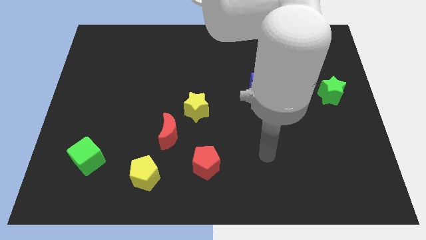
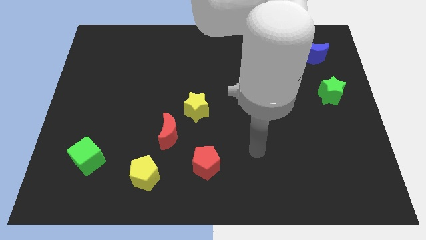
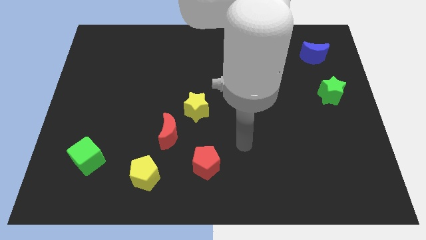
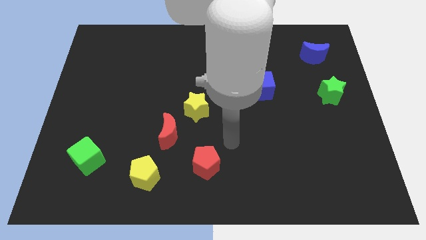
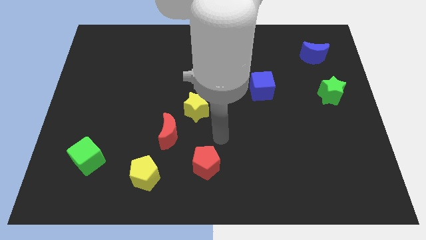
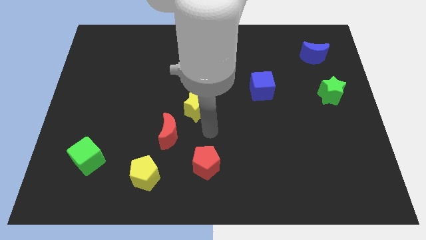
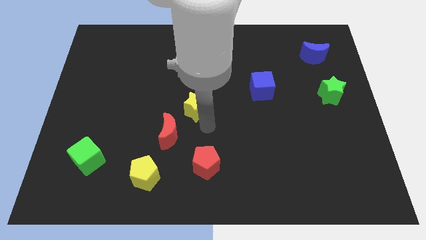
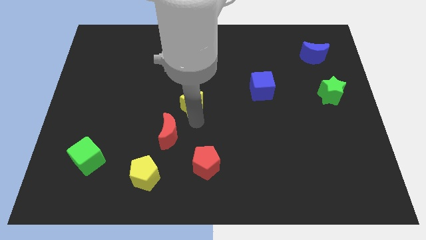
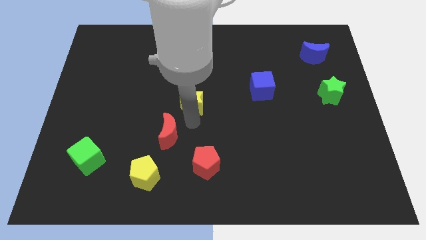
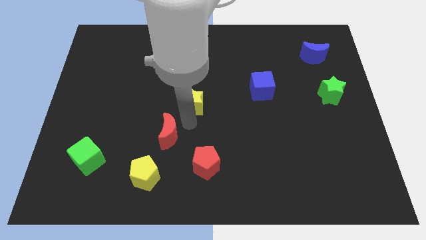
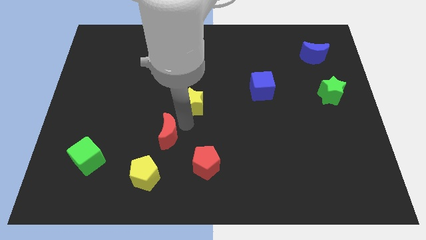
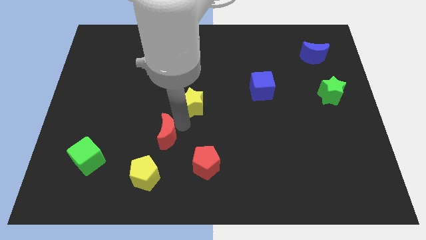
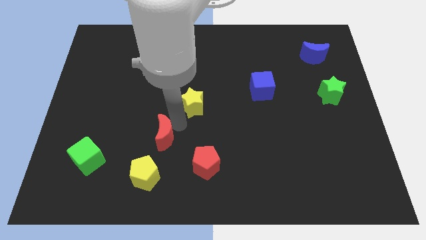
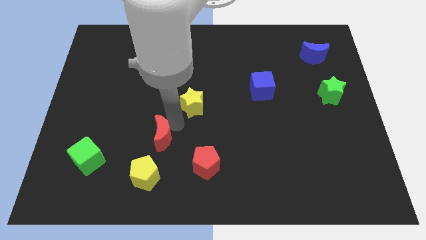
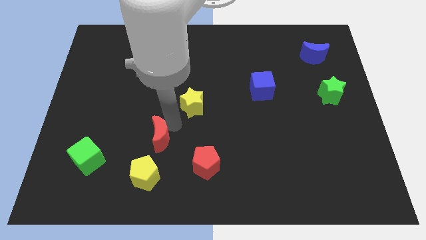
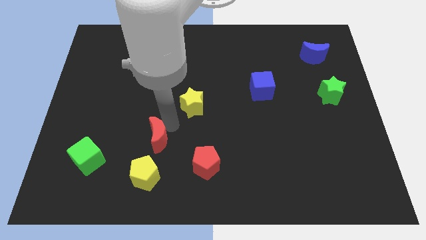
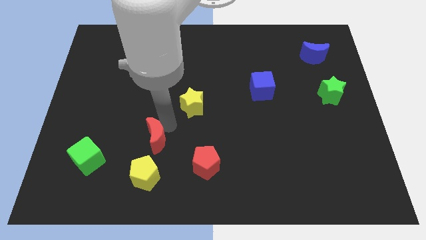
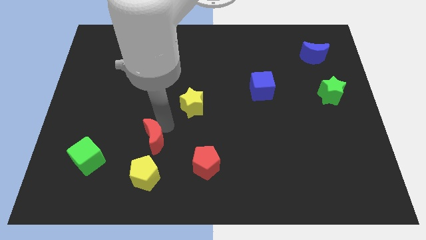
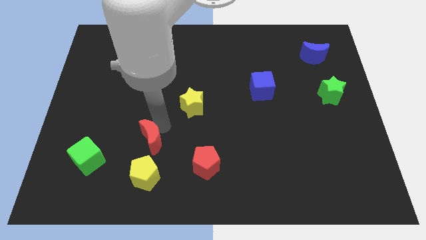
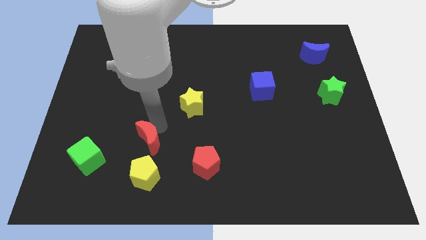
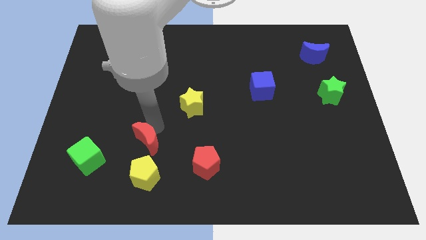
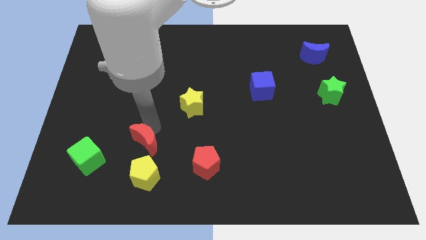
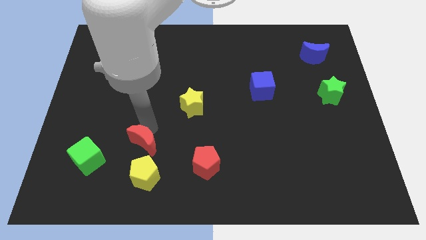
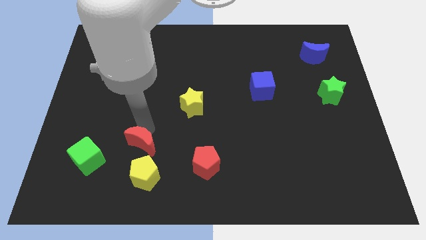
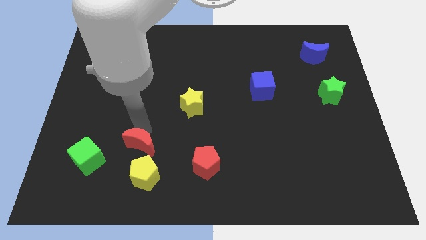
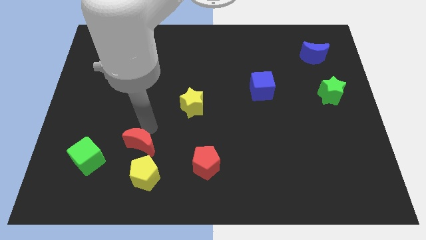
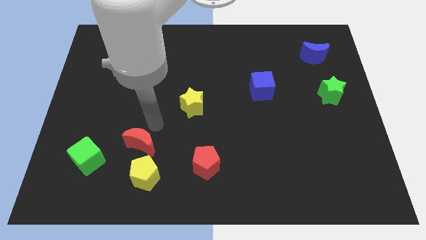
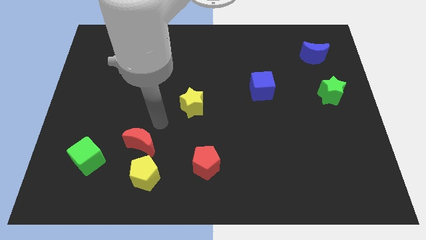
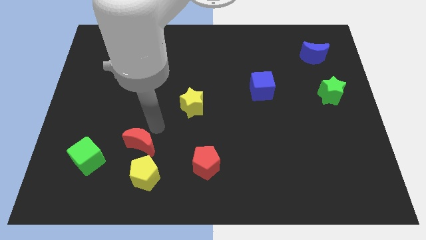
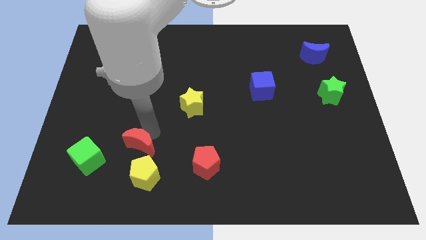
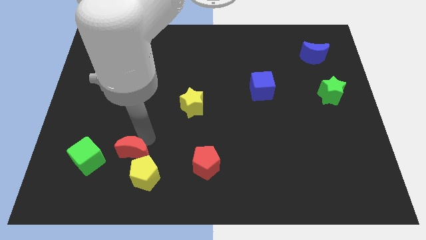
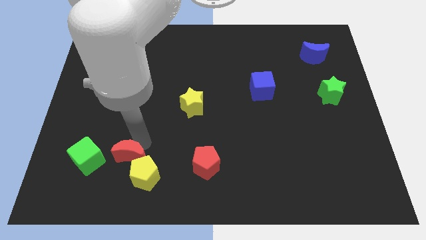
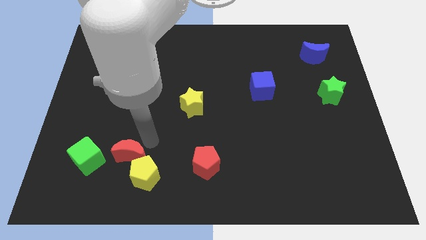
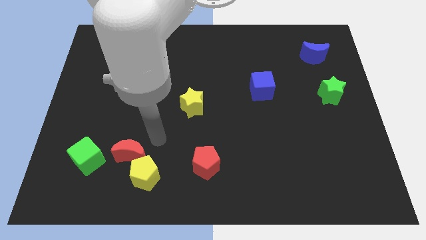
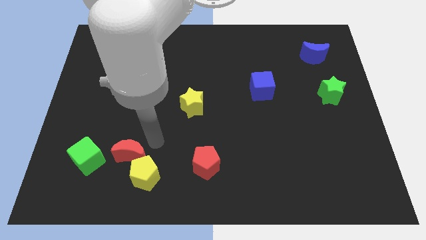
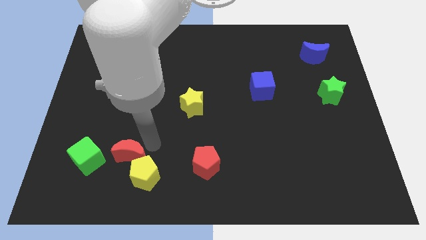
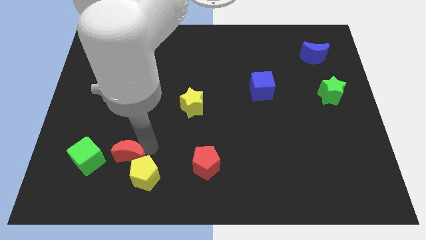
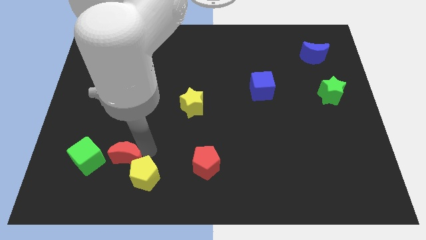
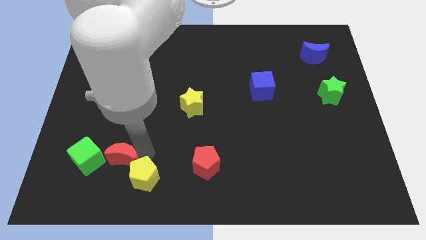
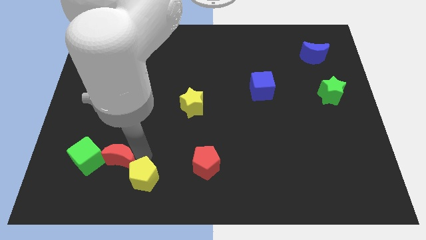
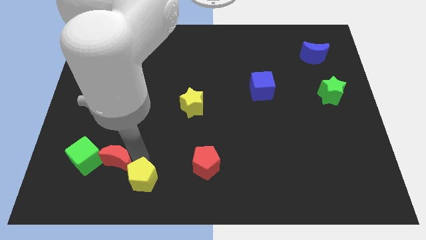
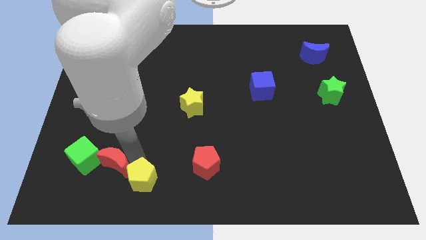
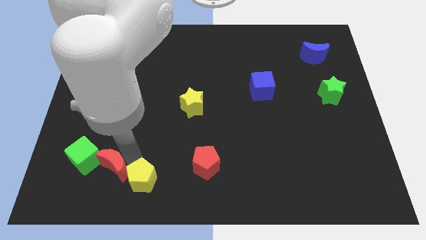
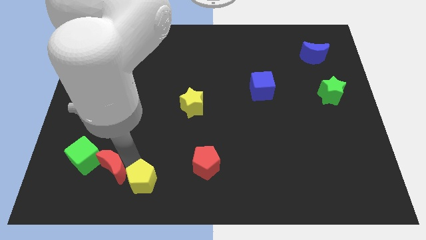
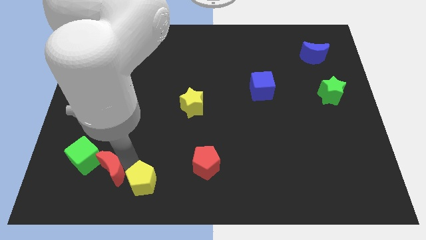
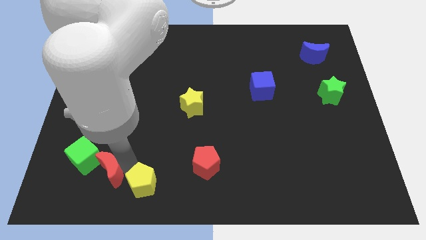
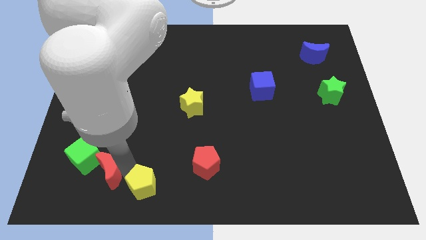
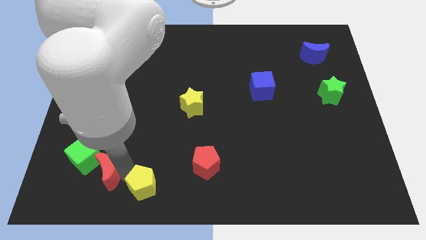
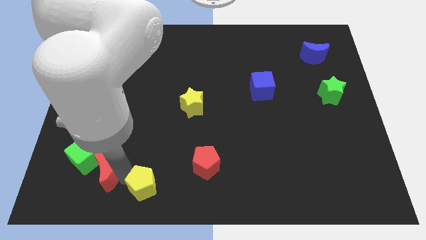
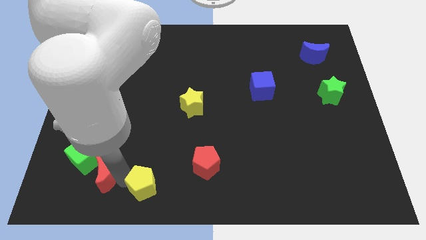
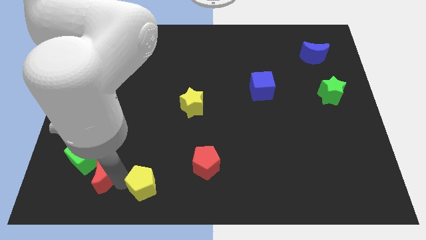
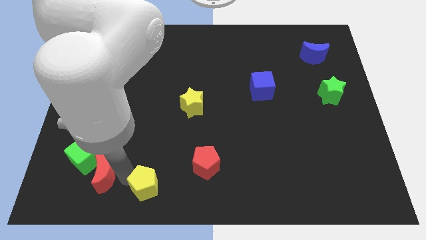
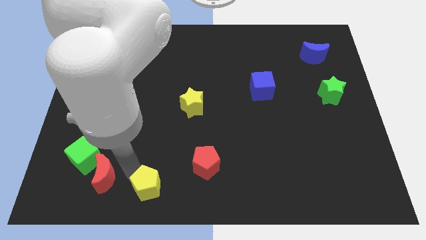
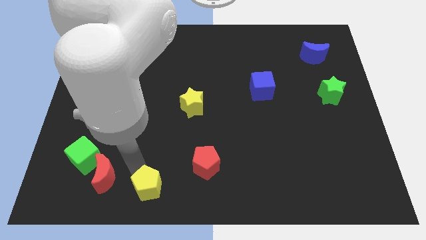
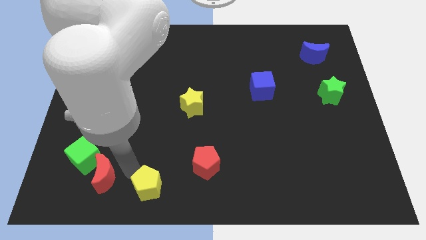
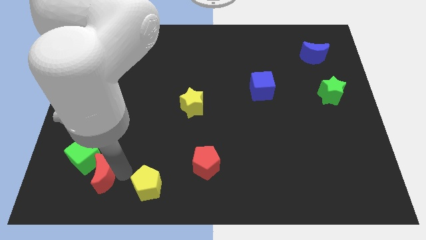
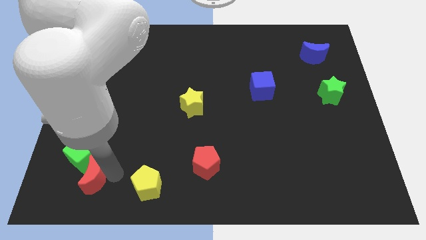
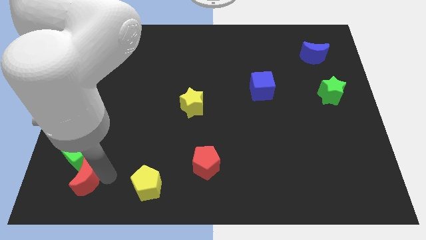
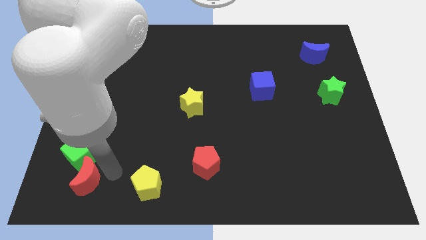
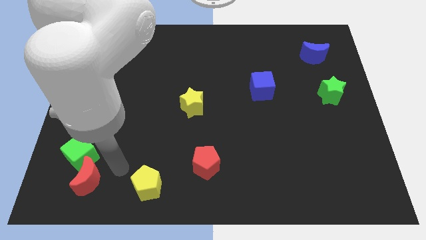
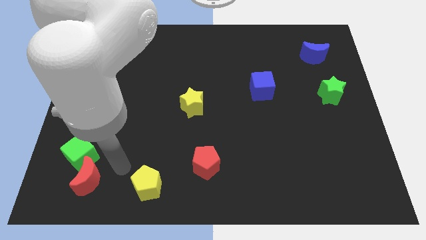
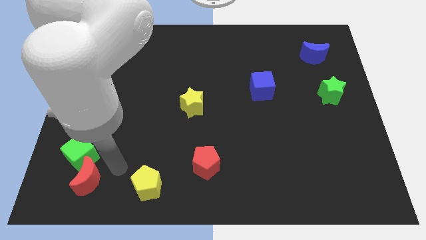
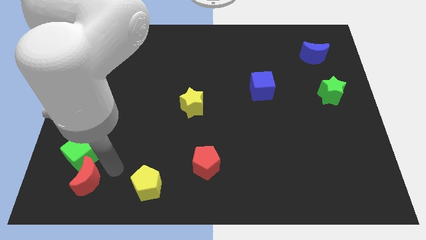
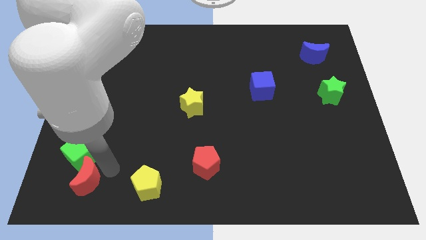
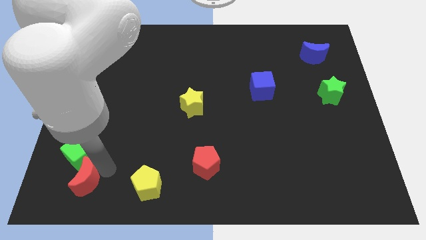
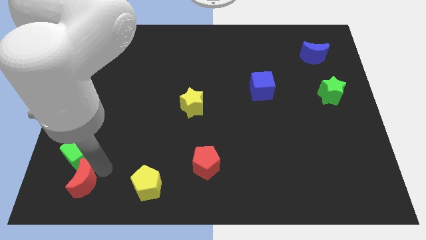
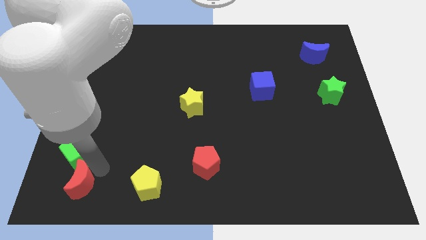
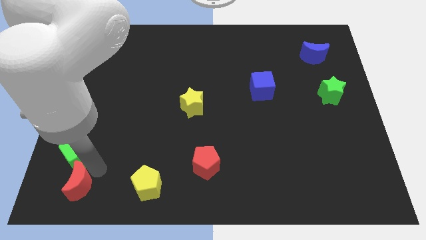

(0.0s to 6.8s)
push the red moon to the bottom left corner
